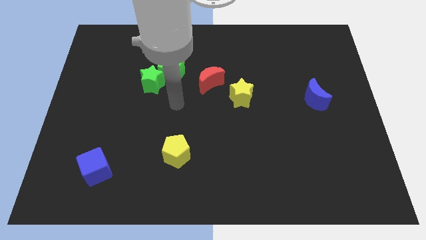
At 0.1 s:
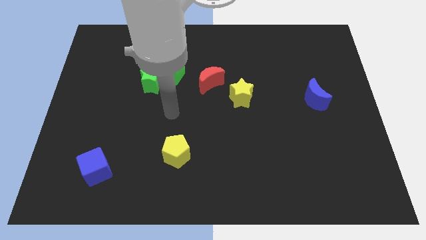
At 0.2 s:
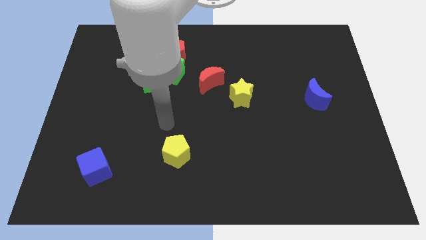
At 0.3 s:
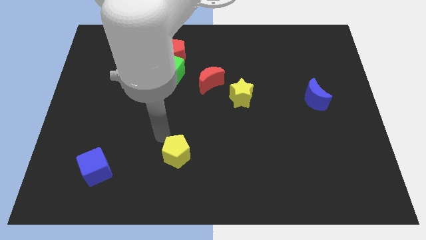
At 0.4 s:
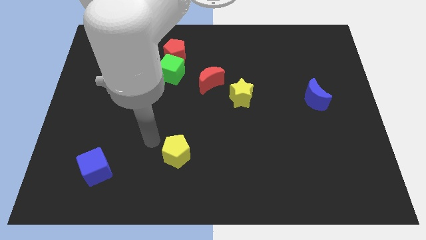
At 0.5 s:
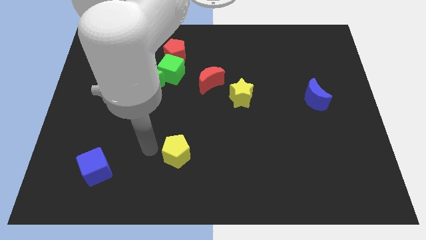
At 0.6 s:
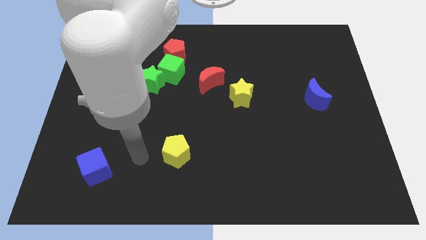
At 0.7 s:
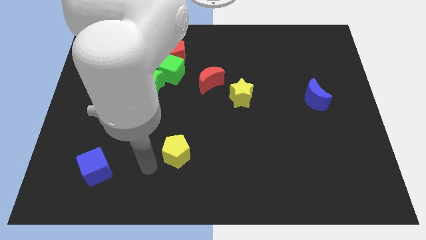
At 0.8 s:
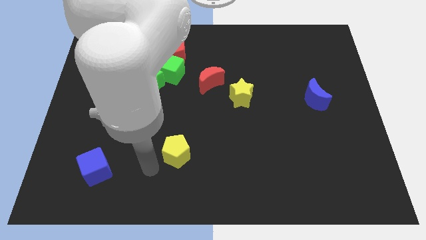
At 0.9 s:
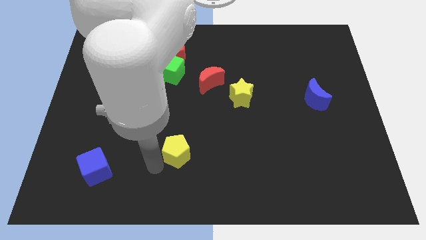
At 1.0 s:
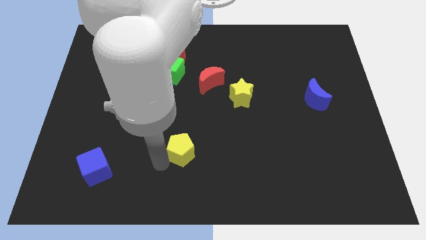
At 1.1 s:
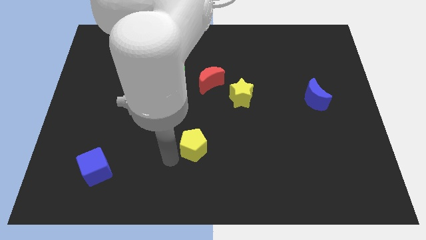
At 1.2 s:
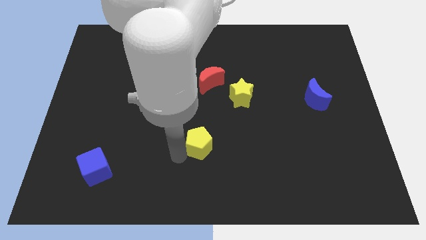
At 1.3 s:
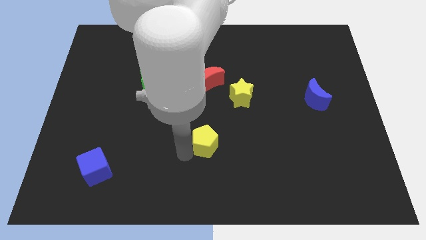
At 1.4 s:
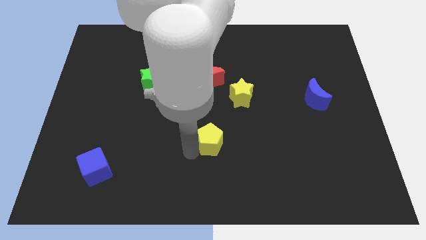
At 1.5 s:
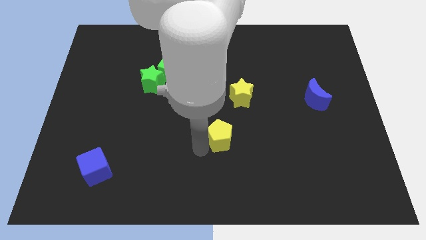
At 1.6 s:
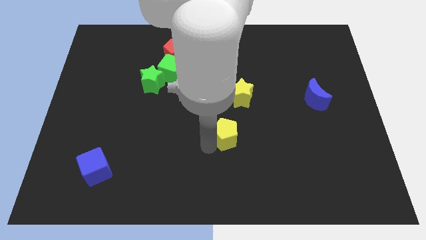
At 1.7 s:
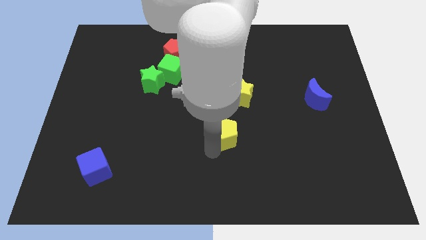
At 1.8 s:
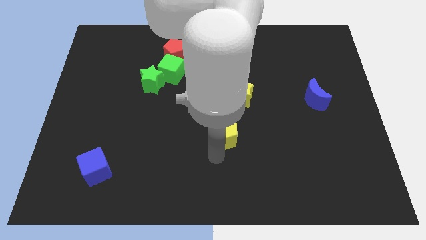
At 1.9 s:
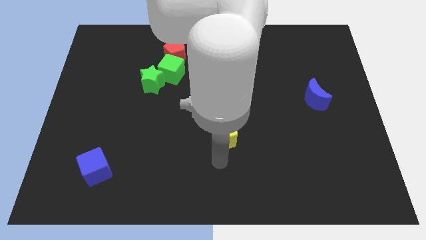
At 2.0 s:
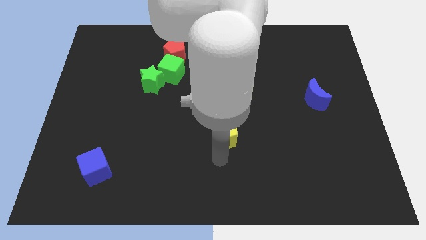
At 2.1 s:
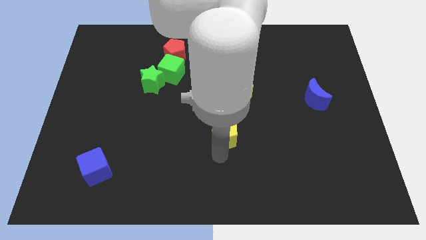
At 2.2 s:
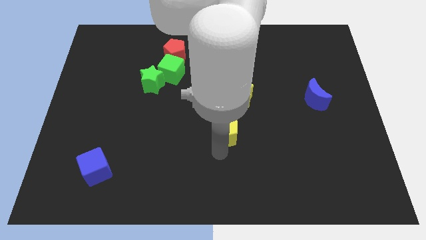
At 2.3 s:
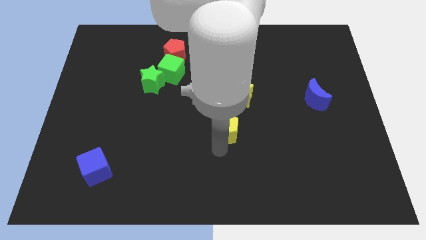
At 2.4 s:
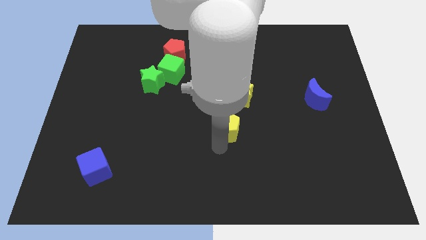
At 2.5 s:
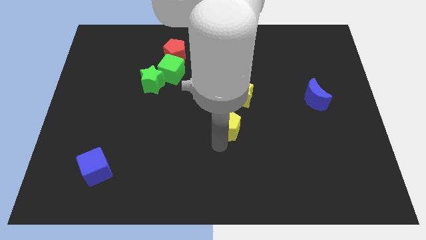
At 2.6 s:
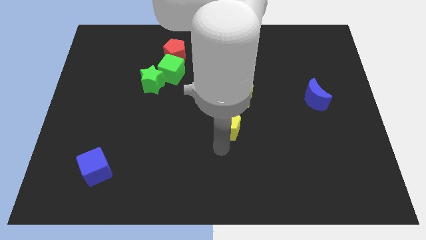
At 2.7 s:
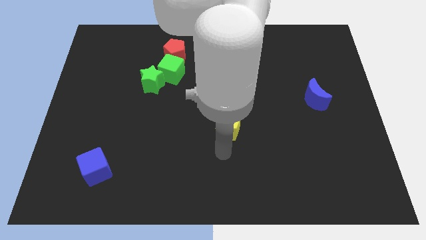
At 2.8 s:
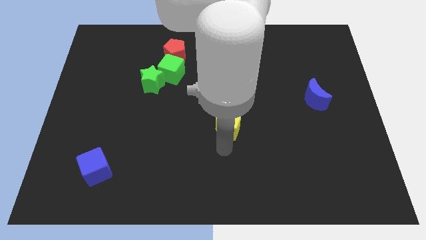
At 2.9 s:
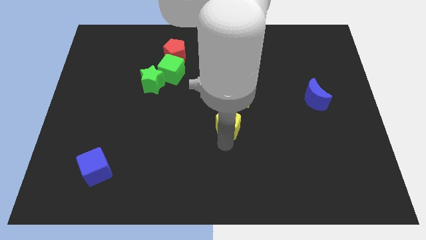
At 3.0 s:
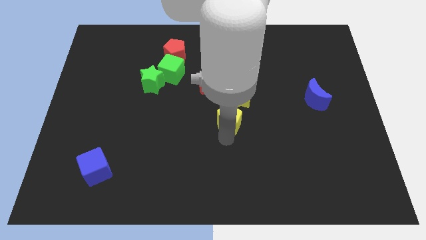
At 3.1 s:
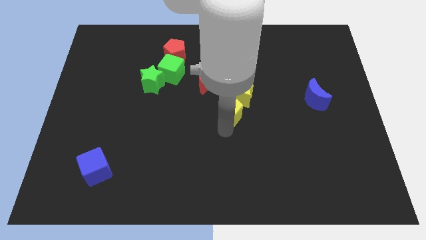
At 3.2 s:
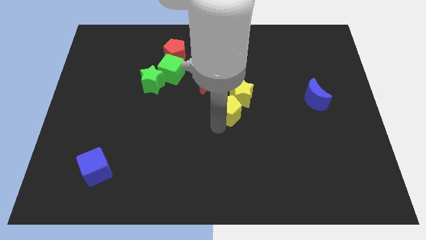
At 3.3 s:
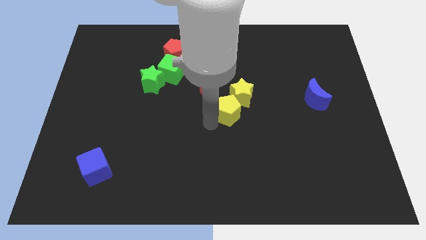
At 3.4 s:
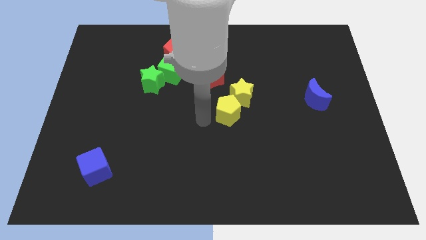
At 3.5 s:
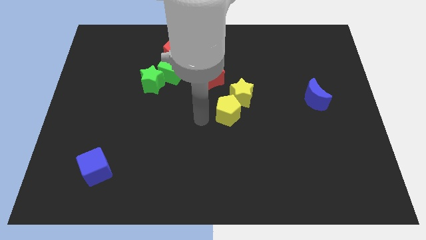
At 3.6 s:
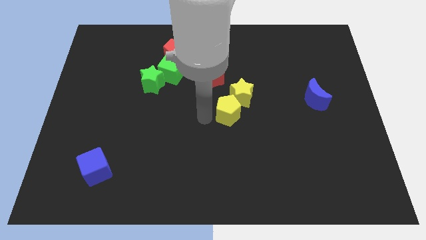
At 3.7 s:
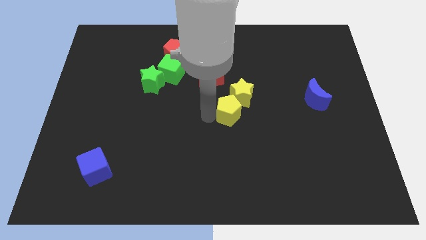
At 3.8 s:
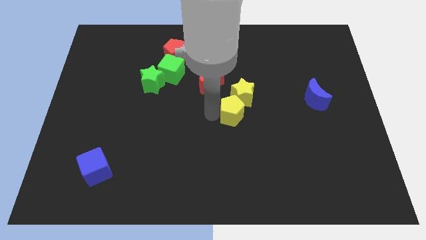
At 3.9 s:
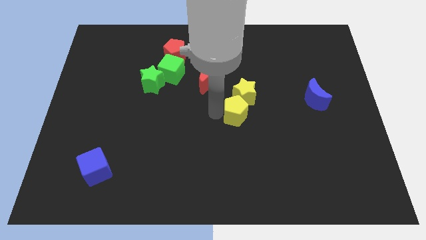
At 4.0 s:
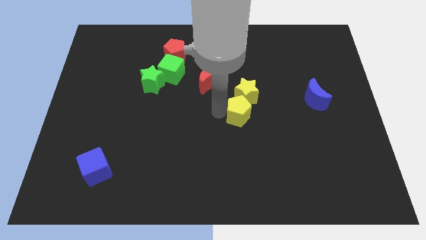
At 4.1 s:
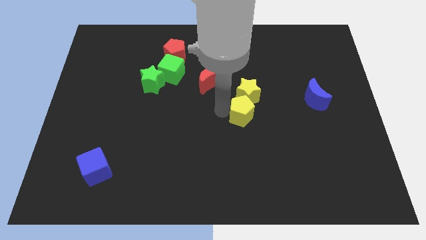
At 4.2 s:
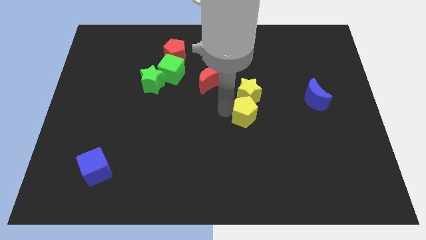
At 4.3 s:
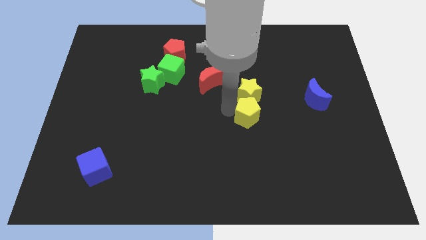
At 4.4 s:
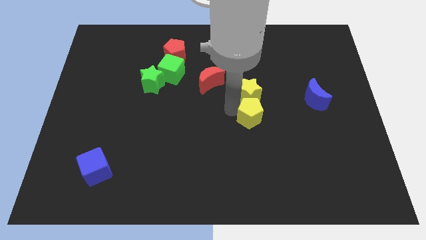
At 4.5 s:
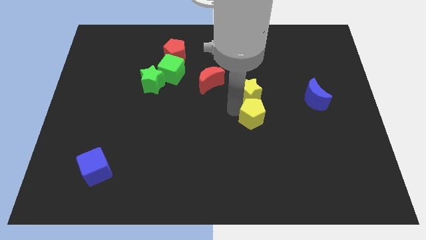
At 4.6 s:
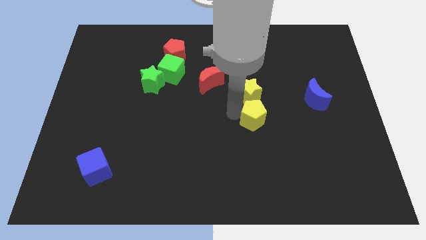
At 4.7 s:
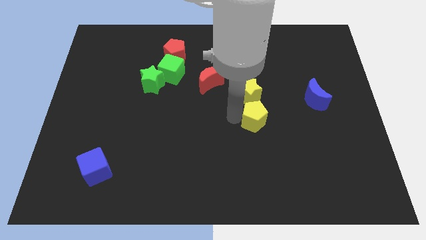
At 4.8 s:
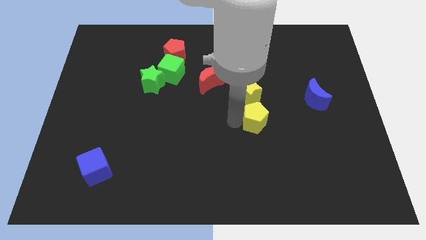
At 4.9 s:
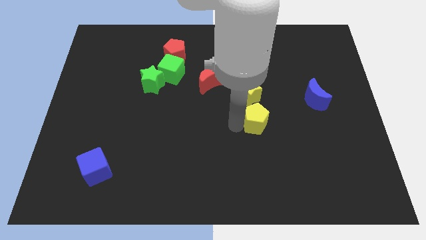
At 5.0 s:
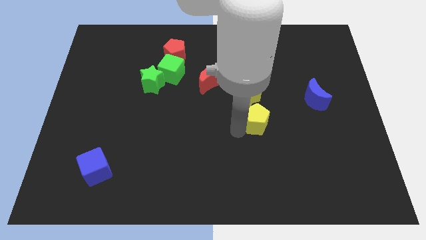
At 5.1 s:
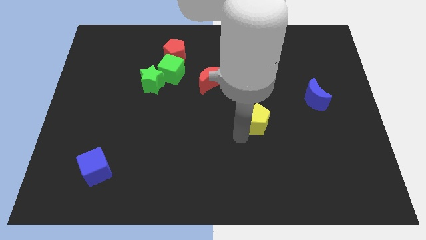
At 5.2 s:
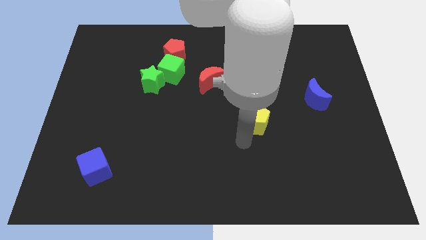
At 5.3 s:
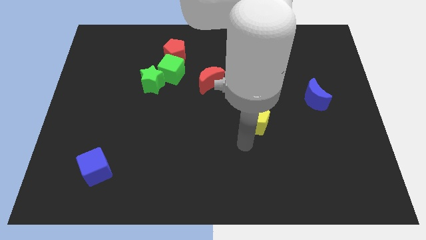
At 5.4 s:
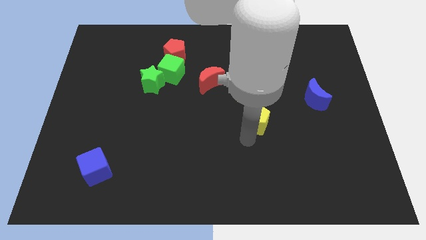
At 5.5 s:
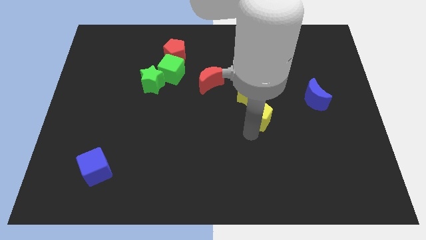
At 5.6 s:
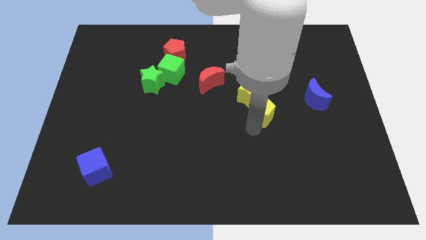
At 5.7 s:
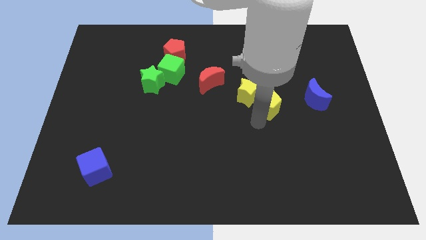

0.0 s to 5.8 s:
push the yellow pentagon up and to the right

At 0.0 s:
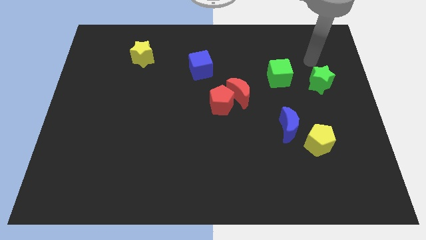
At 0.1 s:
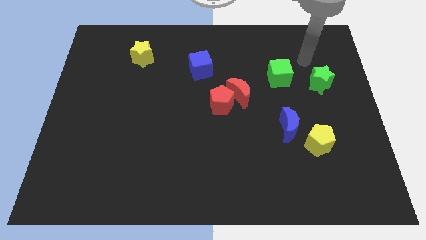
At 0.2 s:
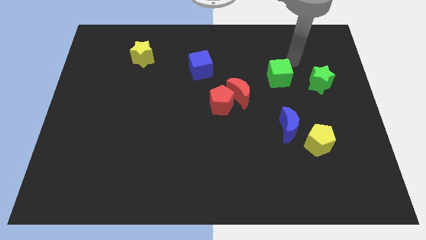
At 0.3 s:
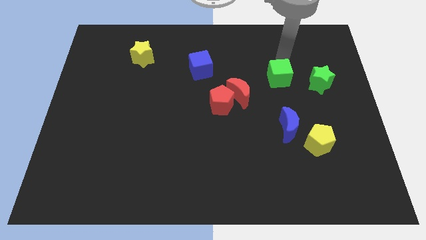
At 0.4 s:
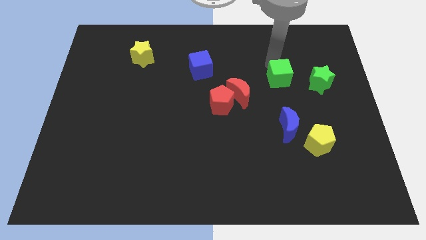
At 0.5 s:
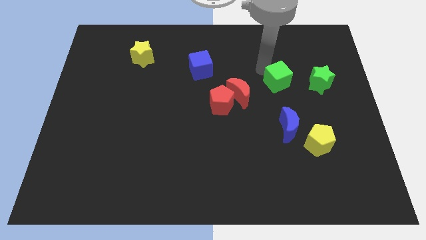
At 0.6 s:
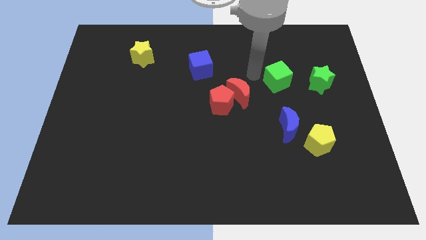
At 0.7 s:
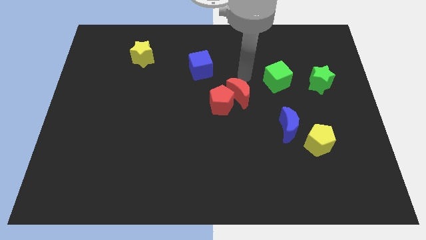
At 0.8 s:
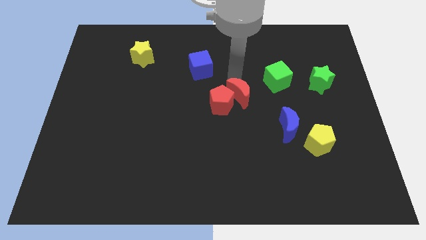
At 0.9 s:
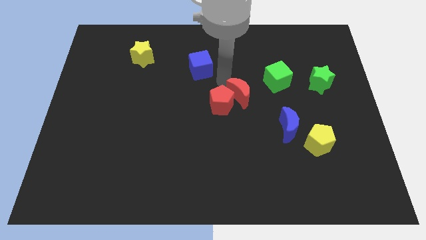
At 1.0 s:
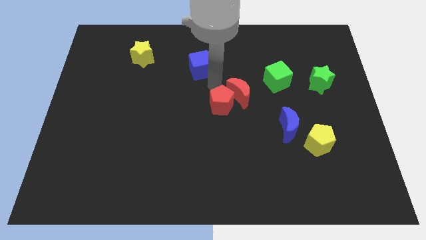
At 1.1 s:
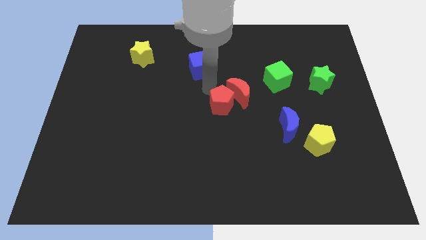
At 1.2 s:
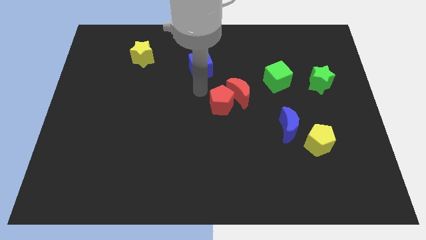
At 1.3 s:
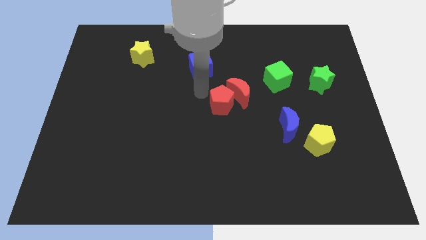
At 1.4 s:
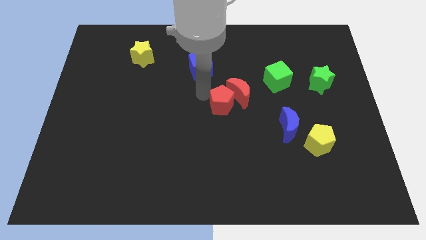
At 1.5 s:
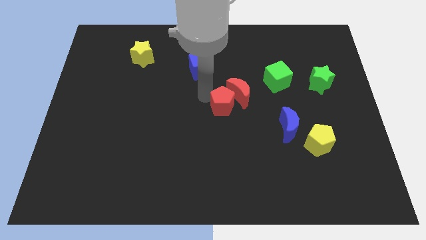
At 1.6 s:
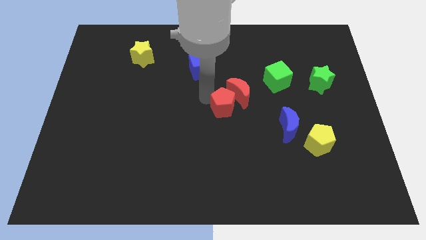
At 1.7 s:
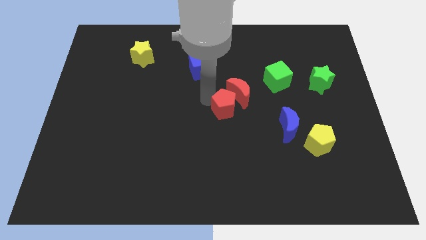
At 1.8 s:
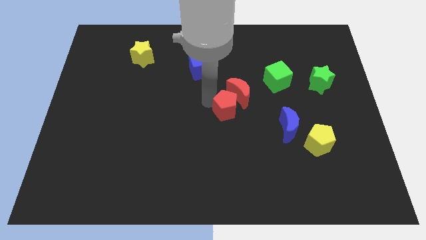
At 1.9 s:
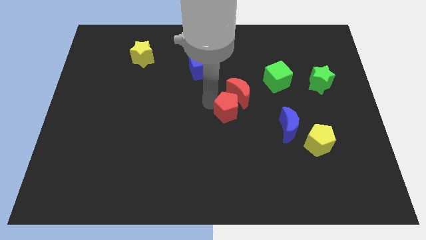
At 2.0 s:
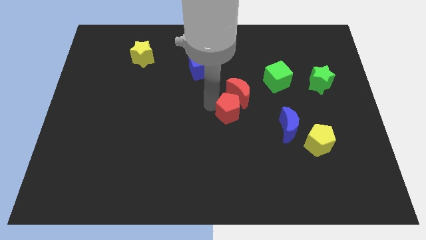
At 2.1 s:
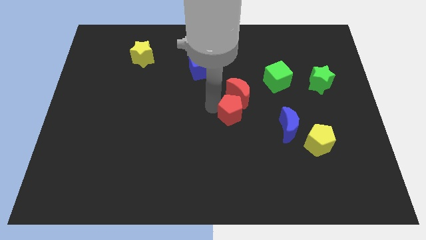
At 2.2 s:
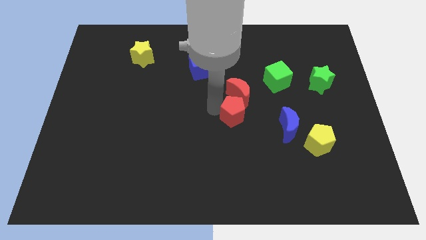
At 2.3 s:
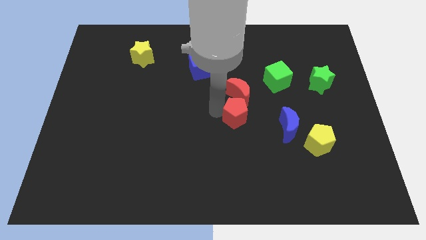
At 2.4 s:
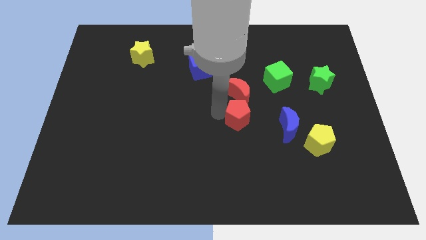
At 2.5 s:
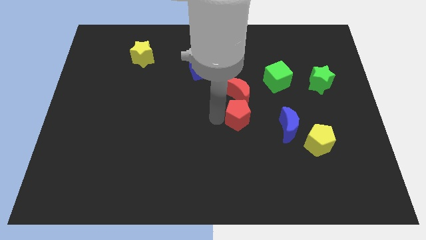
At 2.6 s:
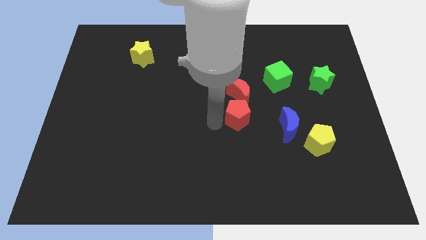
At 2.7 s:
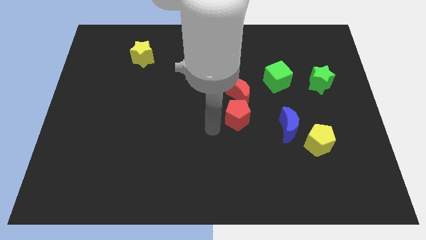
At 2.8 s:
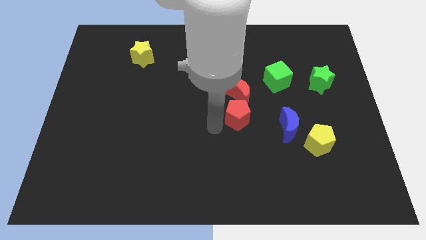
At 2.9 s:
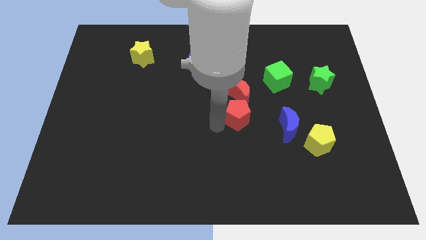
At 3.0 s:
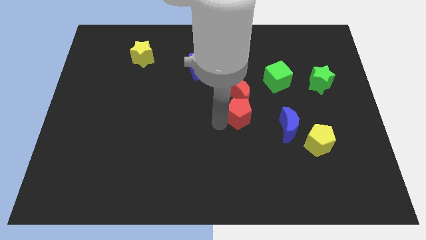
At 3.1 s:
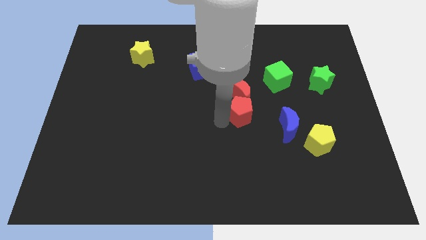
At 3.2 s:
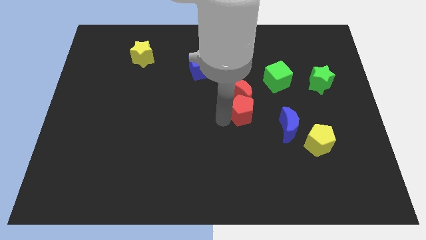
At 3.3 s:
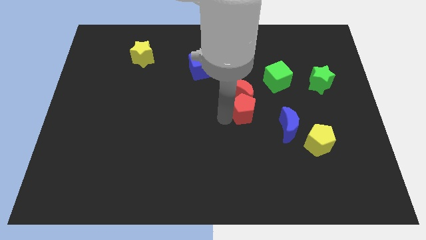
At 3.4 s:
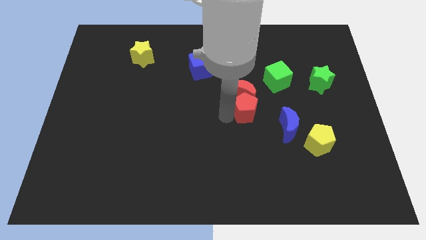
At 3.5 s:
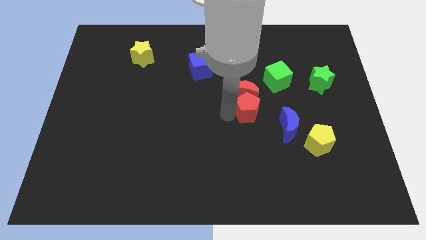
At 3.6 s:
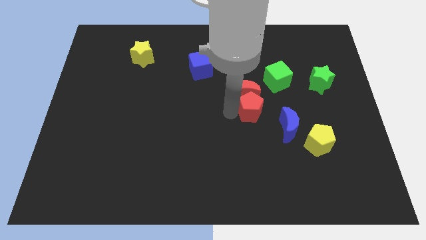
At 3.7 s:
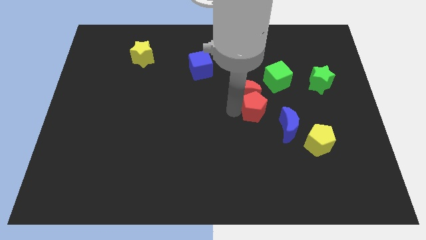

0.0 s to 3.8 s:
slightly push the red pentagon to the right
